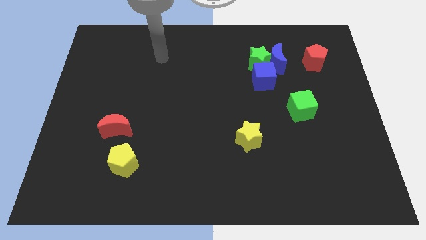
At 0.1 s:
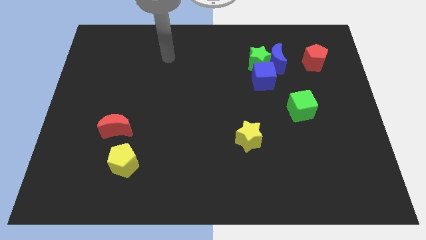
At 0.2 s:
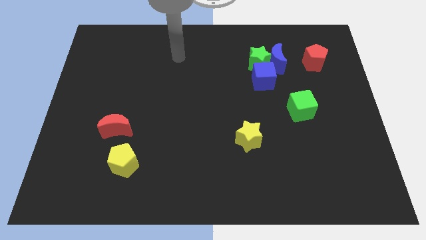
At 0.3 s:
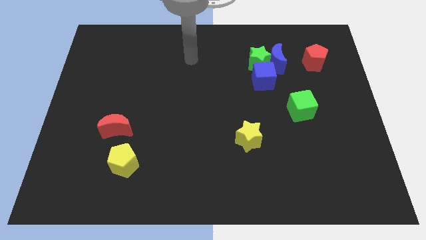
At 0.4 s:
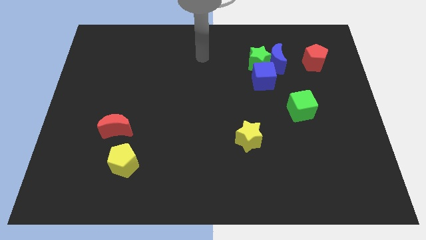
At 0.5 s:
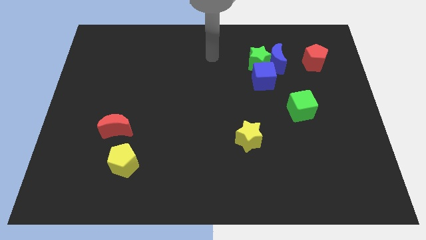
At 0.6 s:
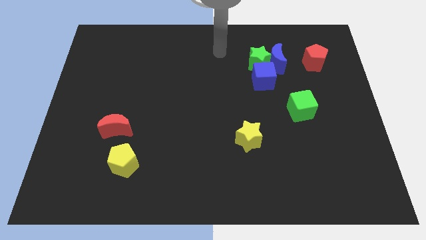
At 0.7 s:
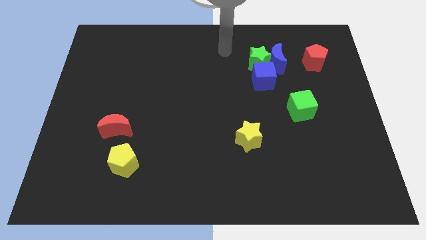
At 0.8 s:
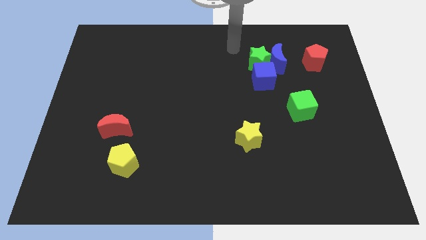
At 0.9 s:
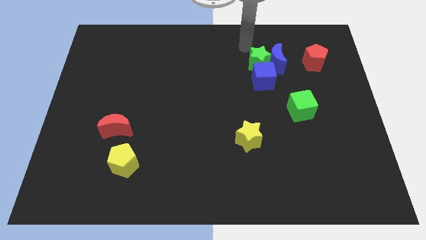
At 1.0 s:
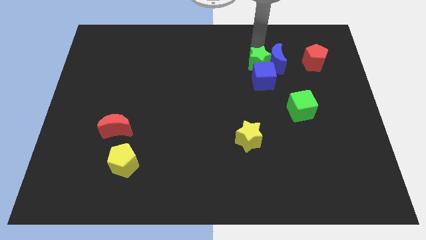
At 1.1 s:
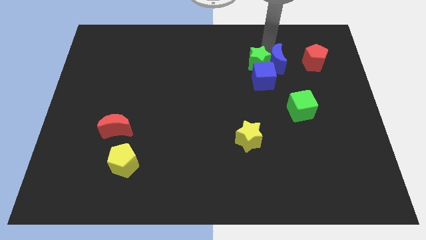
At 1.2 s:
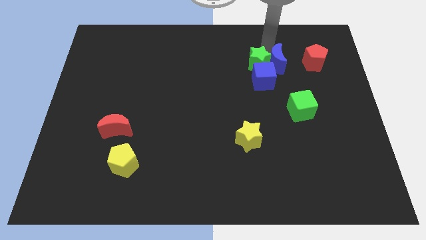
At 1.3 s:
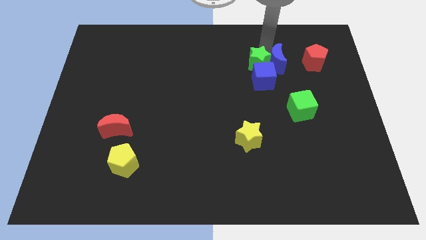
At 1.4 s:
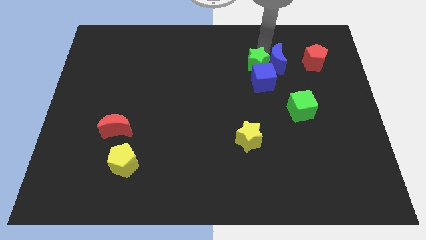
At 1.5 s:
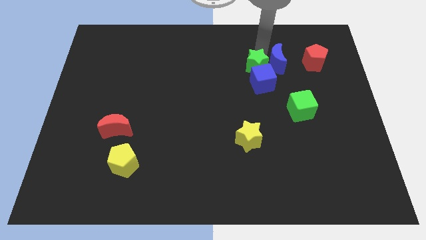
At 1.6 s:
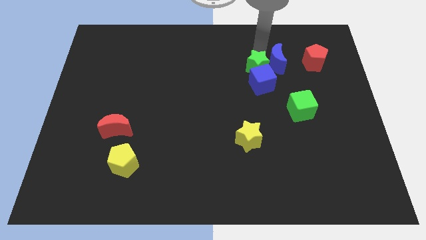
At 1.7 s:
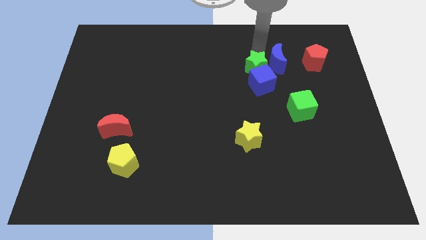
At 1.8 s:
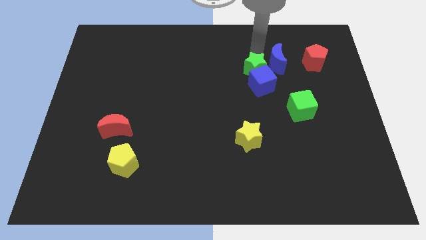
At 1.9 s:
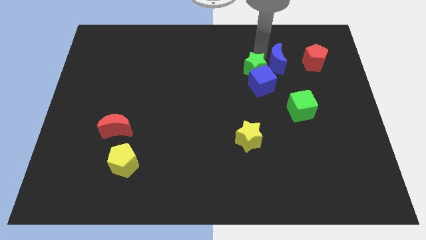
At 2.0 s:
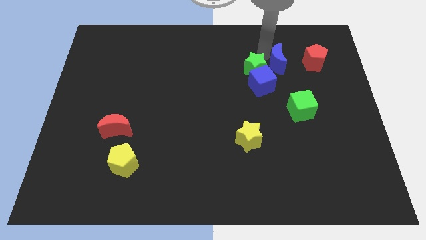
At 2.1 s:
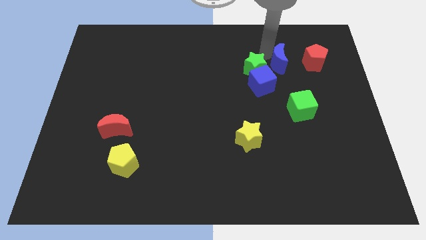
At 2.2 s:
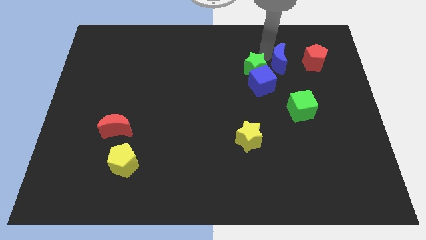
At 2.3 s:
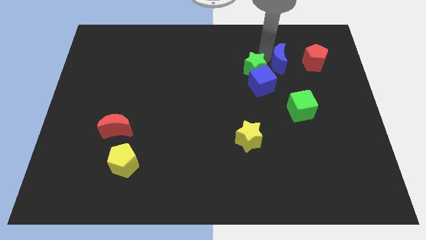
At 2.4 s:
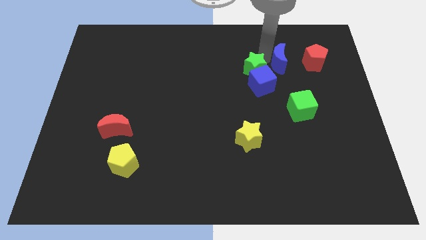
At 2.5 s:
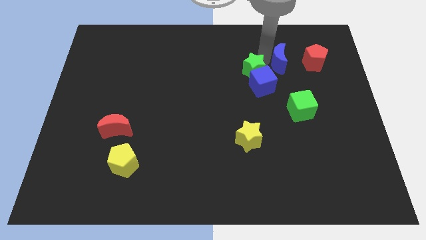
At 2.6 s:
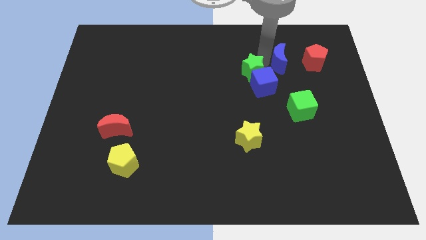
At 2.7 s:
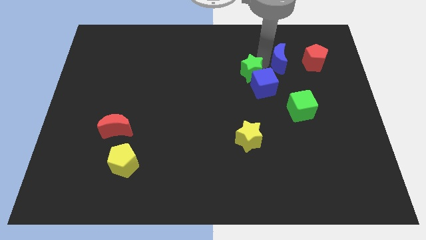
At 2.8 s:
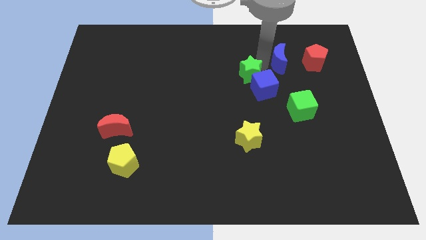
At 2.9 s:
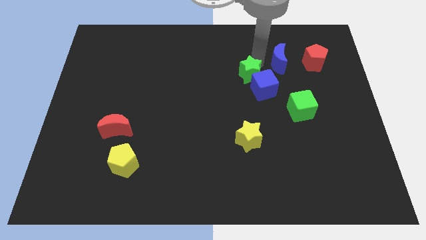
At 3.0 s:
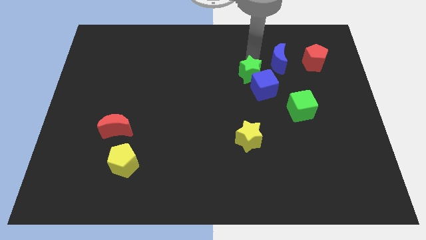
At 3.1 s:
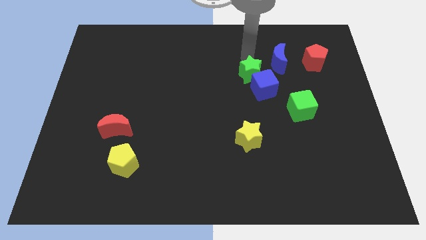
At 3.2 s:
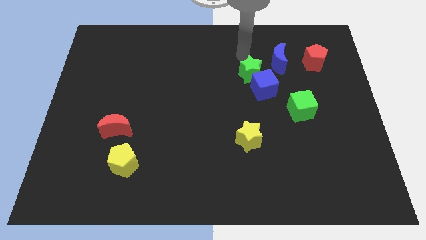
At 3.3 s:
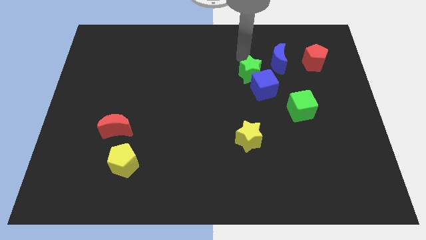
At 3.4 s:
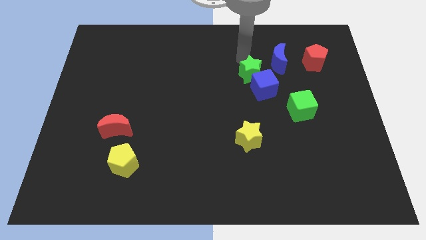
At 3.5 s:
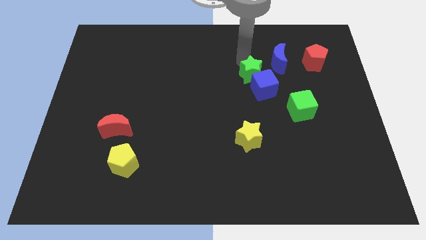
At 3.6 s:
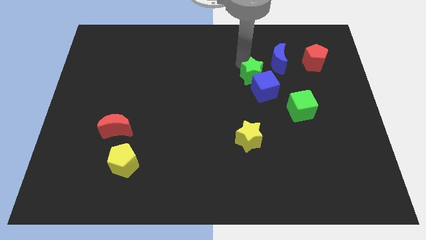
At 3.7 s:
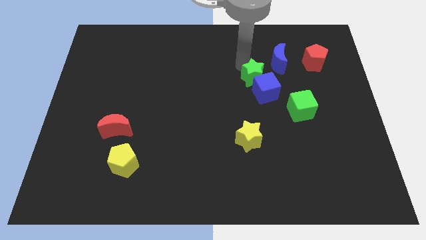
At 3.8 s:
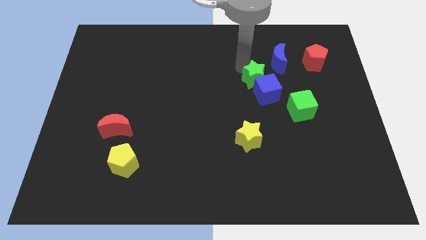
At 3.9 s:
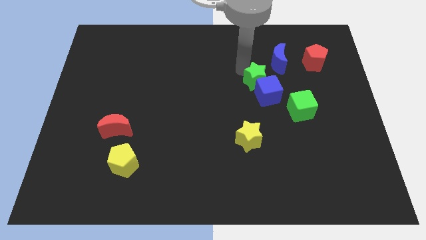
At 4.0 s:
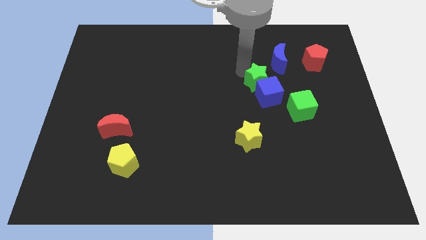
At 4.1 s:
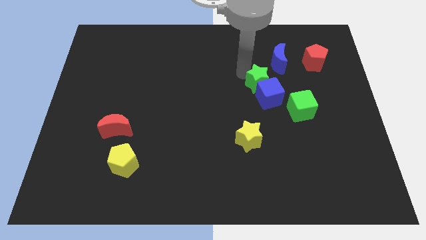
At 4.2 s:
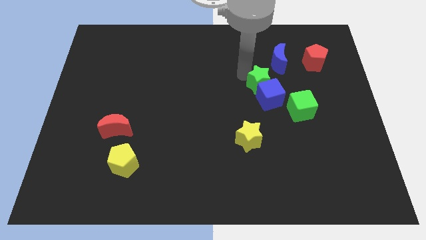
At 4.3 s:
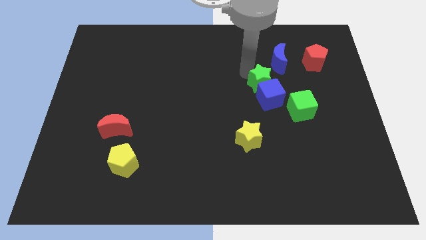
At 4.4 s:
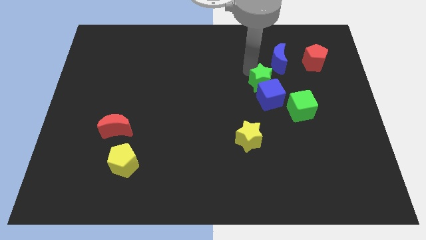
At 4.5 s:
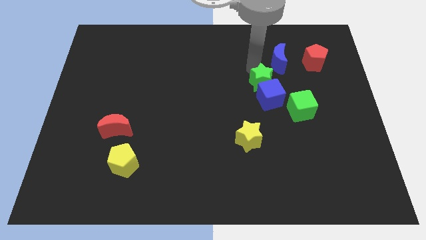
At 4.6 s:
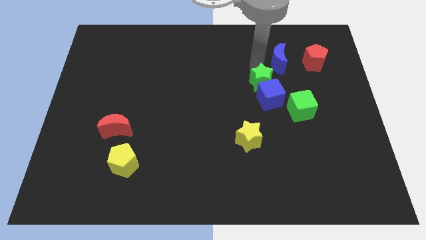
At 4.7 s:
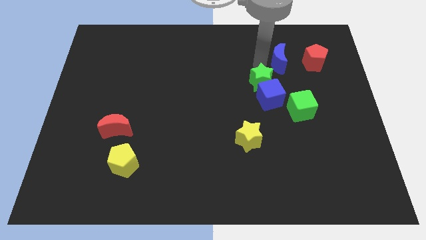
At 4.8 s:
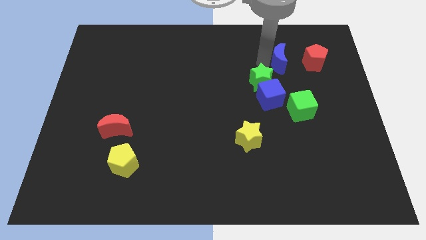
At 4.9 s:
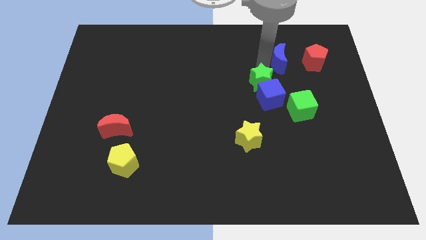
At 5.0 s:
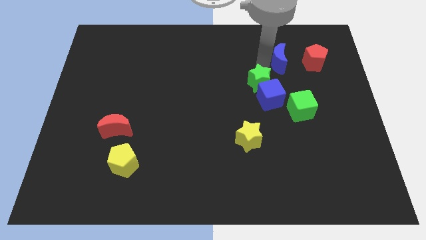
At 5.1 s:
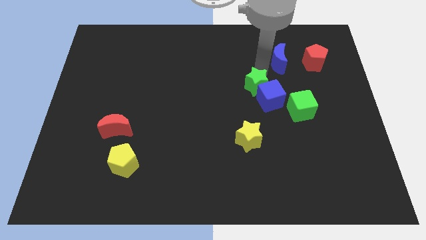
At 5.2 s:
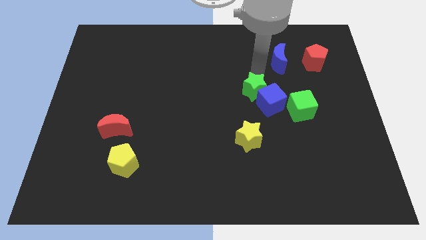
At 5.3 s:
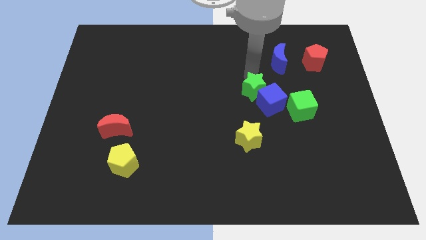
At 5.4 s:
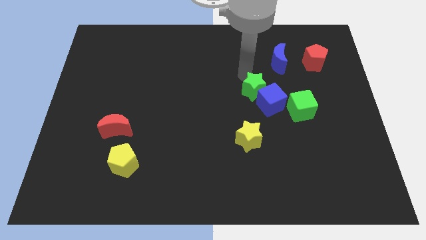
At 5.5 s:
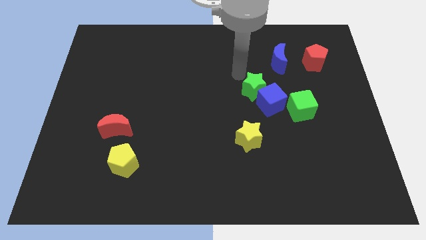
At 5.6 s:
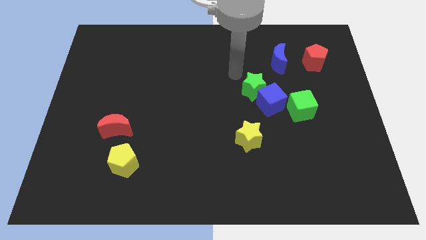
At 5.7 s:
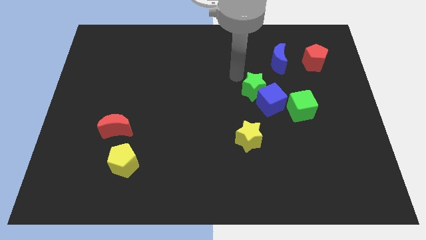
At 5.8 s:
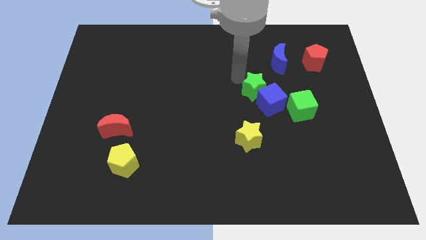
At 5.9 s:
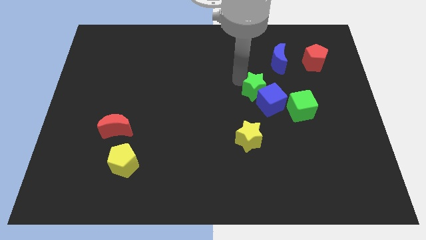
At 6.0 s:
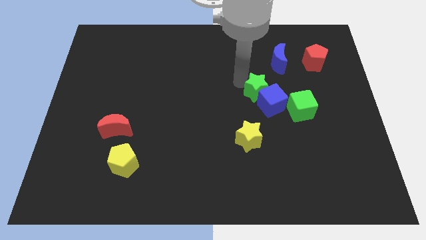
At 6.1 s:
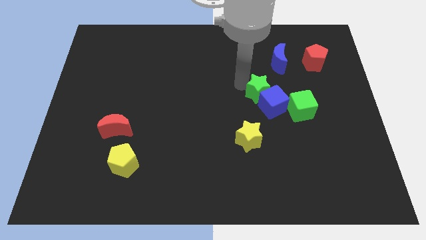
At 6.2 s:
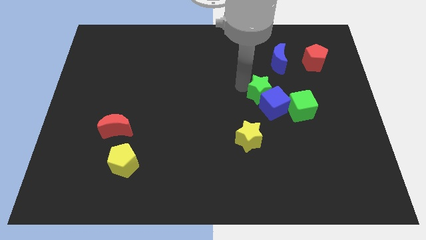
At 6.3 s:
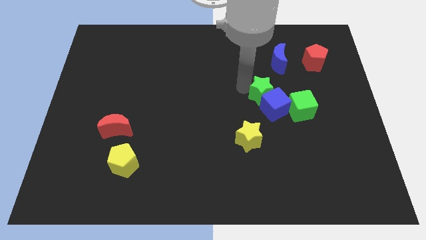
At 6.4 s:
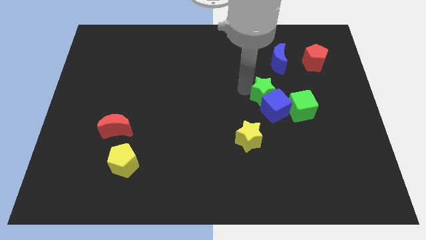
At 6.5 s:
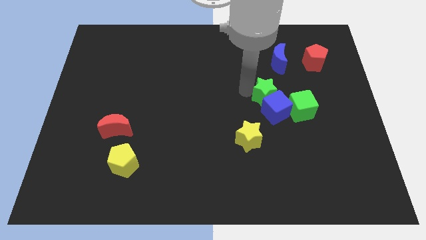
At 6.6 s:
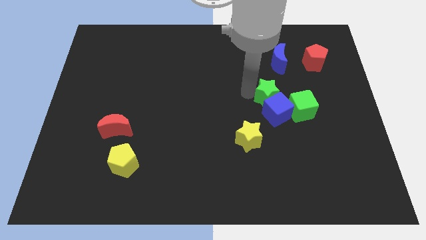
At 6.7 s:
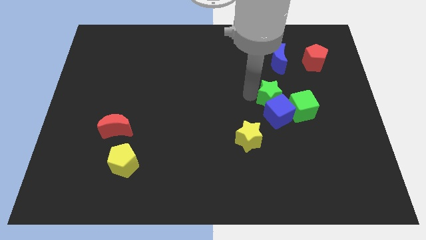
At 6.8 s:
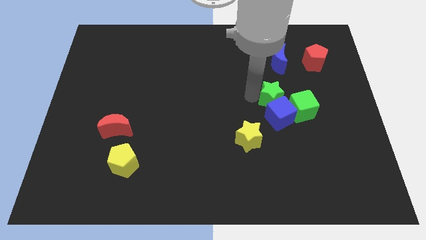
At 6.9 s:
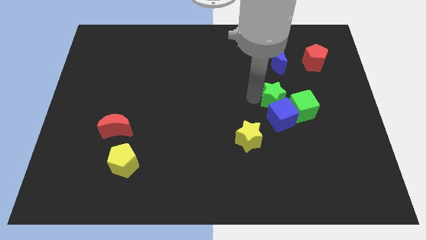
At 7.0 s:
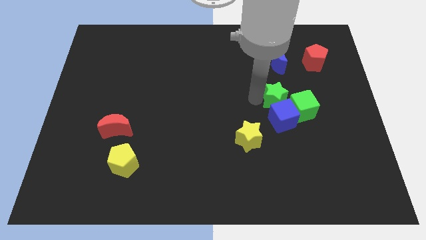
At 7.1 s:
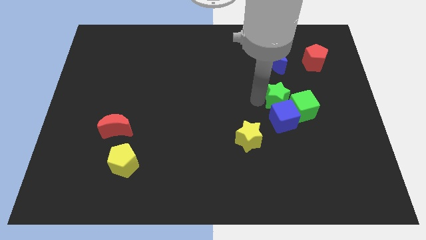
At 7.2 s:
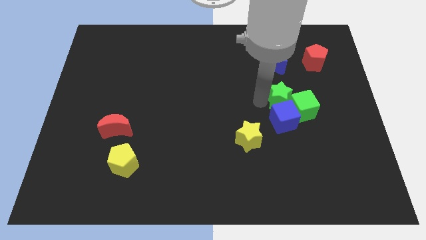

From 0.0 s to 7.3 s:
move the green star towards the green cube
